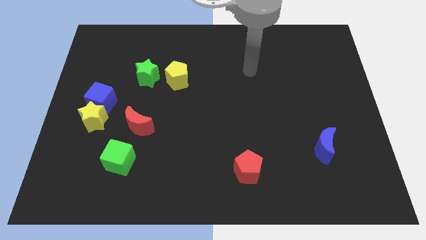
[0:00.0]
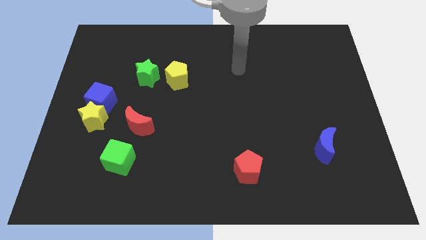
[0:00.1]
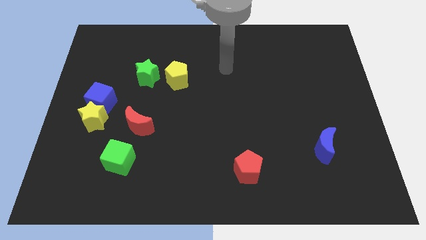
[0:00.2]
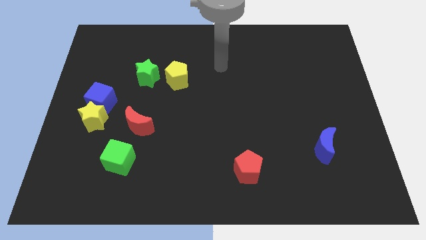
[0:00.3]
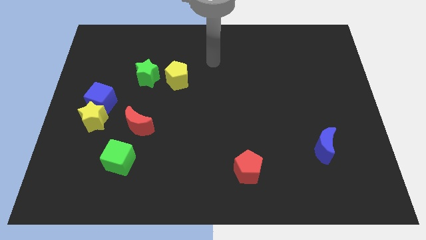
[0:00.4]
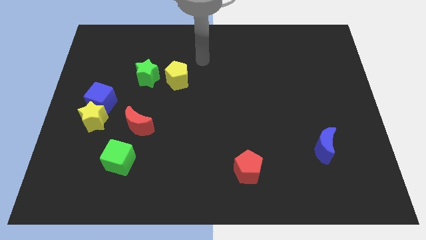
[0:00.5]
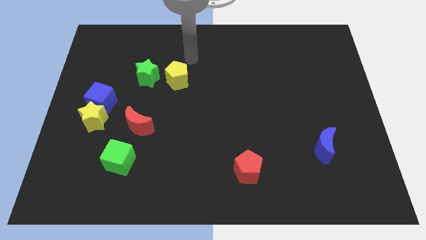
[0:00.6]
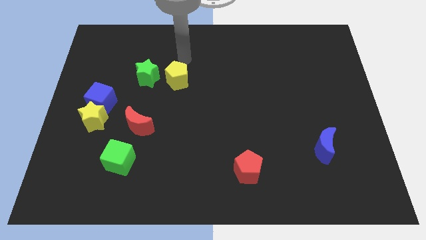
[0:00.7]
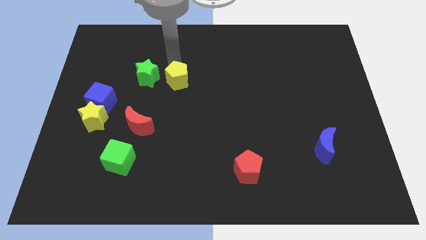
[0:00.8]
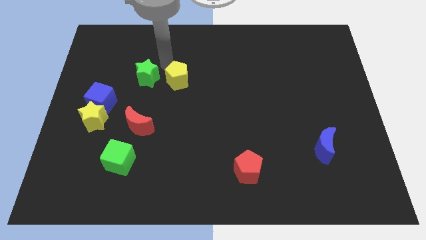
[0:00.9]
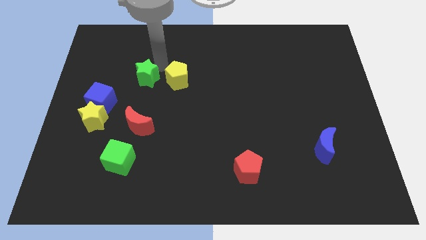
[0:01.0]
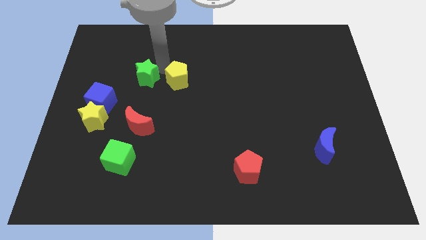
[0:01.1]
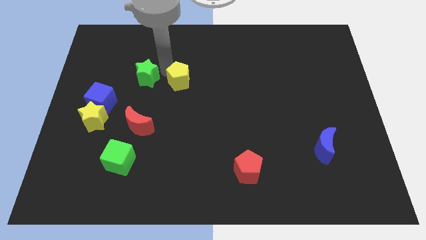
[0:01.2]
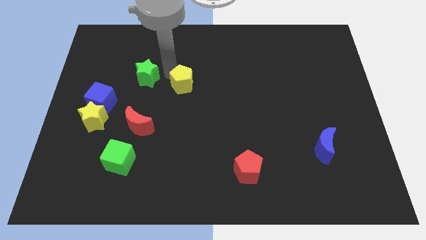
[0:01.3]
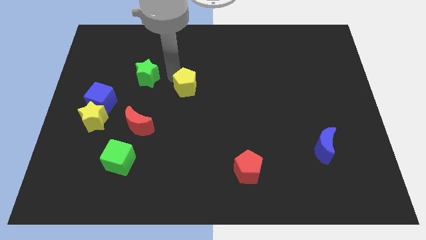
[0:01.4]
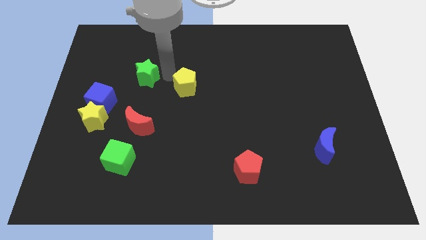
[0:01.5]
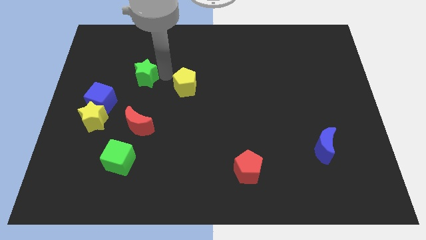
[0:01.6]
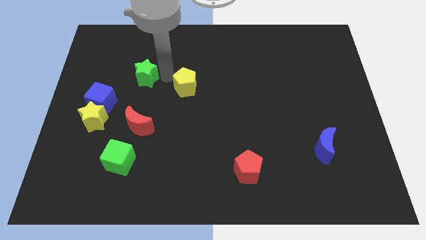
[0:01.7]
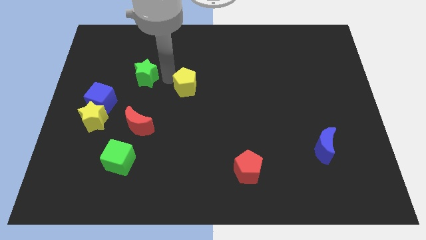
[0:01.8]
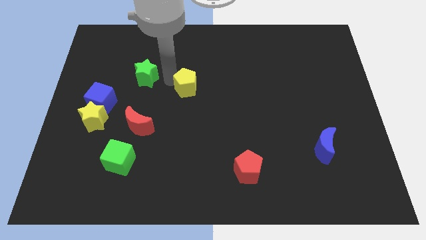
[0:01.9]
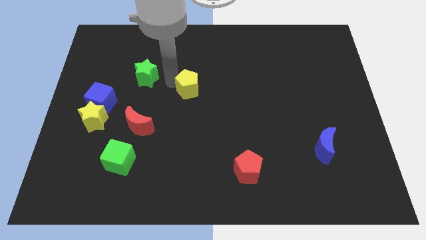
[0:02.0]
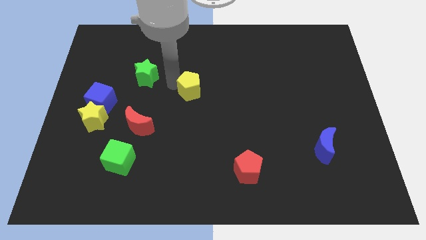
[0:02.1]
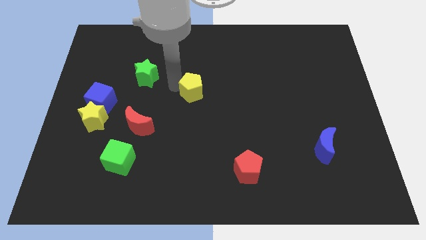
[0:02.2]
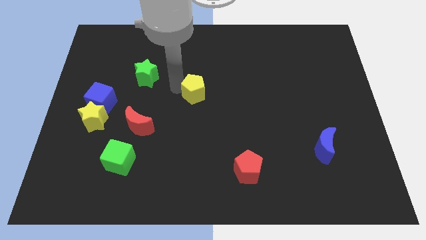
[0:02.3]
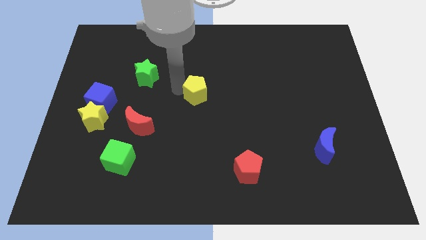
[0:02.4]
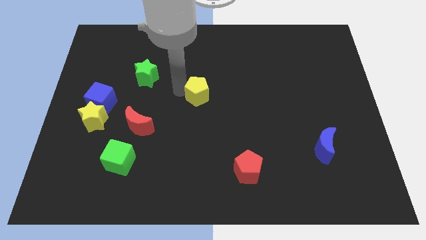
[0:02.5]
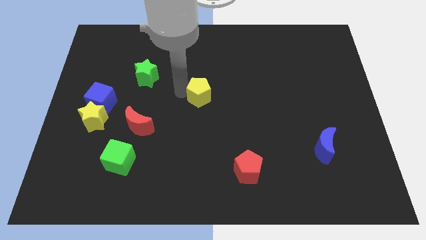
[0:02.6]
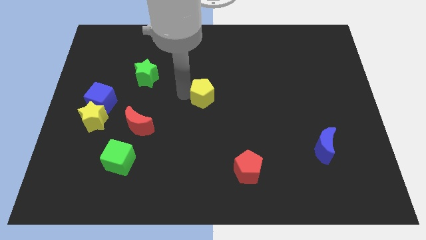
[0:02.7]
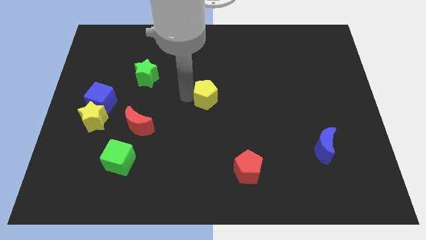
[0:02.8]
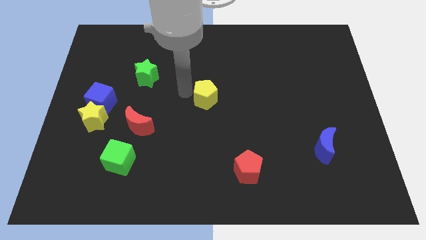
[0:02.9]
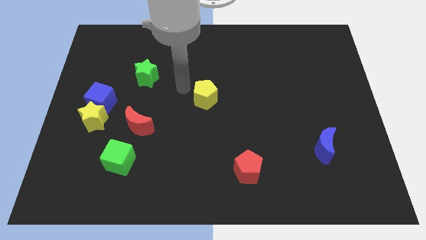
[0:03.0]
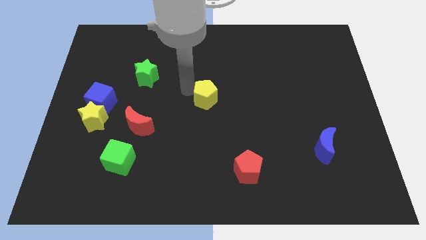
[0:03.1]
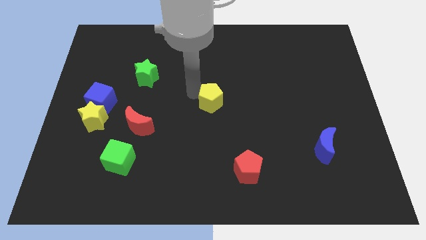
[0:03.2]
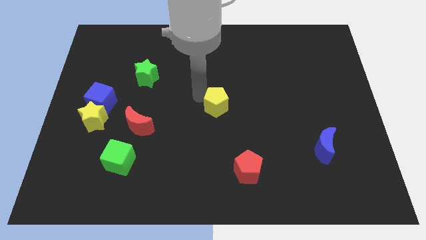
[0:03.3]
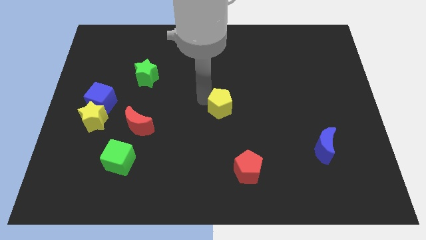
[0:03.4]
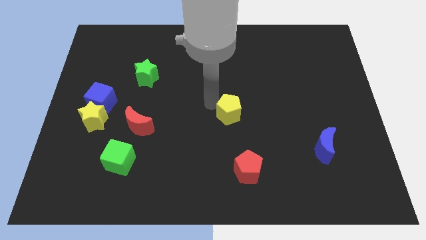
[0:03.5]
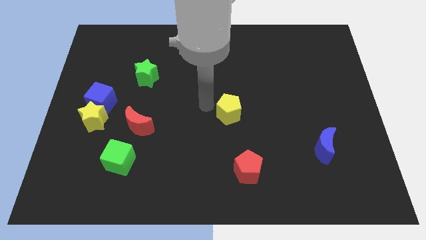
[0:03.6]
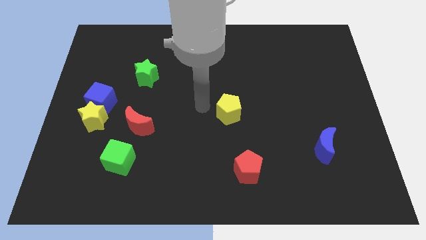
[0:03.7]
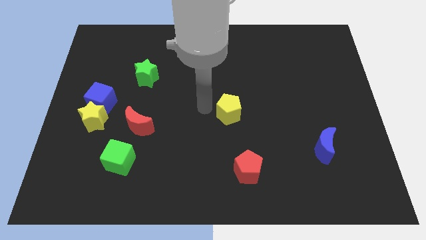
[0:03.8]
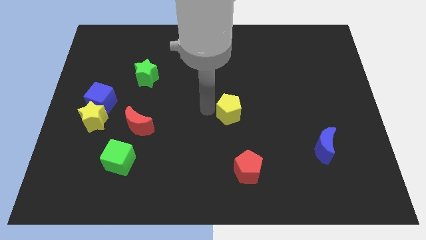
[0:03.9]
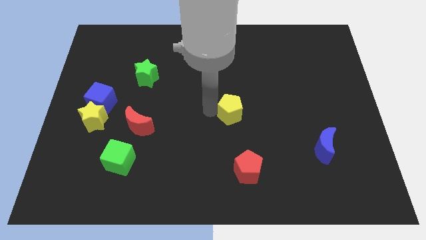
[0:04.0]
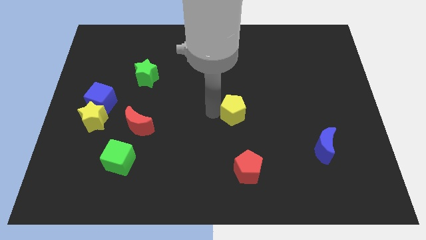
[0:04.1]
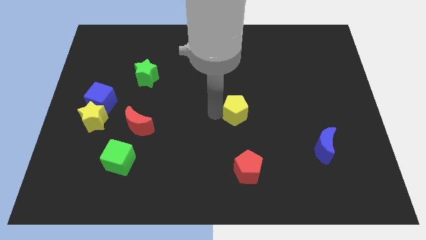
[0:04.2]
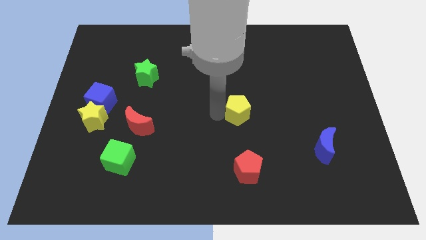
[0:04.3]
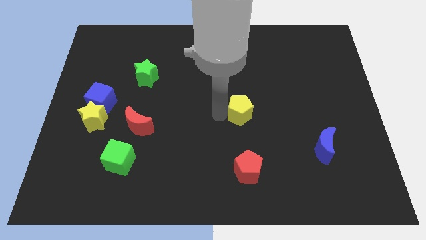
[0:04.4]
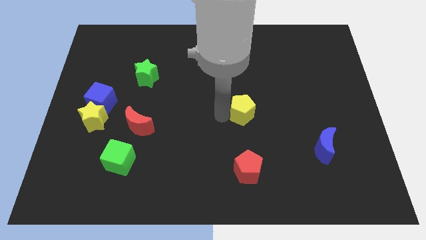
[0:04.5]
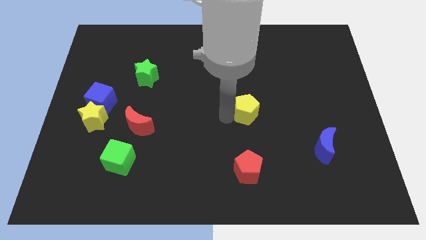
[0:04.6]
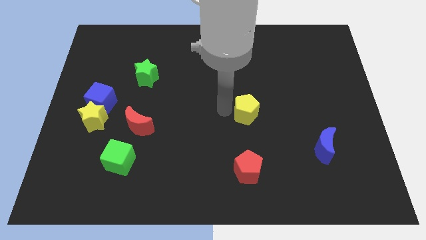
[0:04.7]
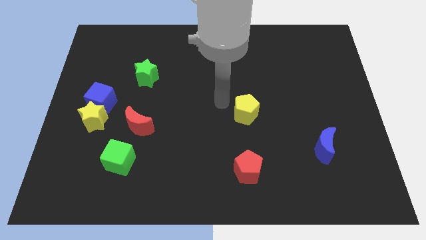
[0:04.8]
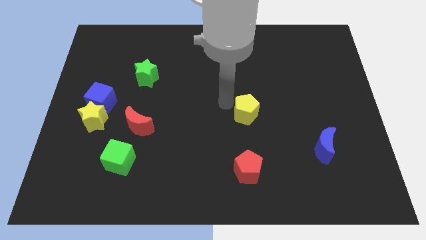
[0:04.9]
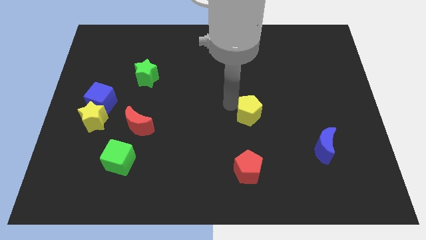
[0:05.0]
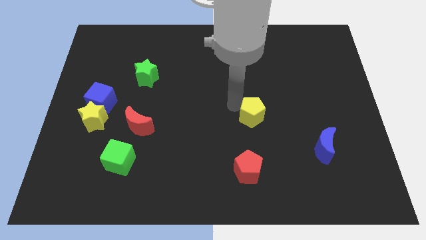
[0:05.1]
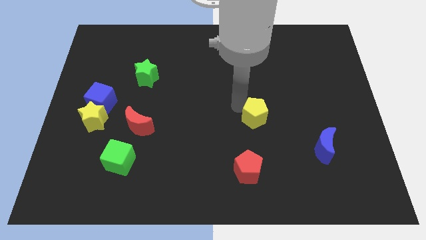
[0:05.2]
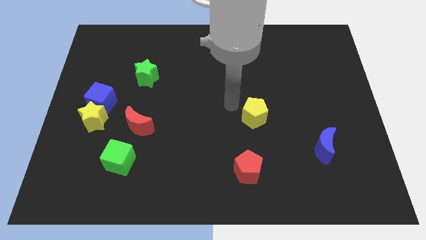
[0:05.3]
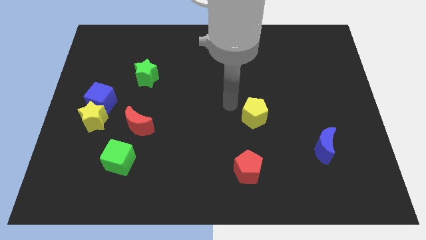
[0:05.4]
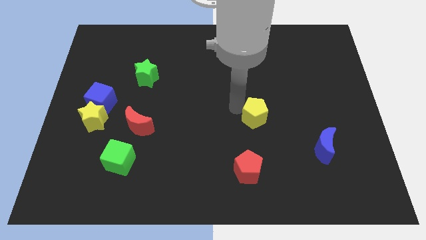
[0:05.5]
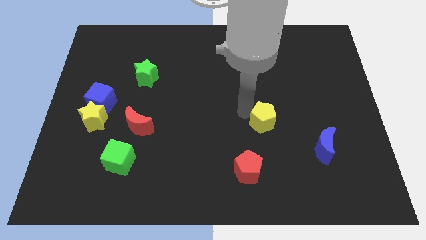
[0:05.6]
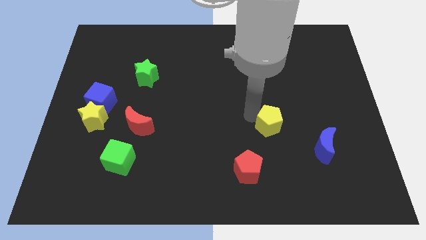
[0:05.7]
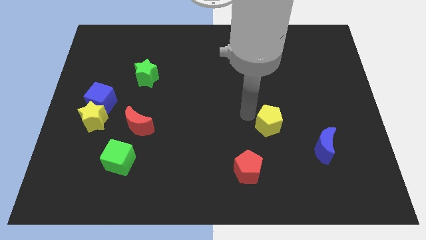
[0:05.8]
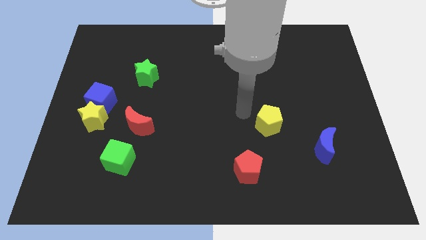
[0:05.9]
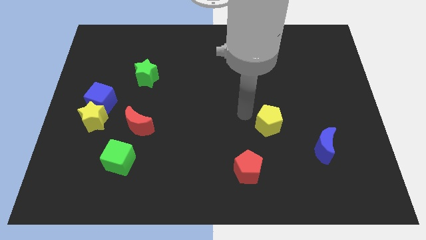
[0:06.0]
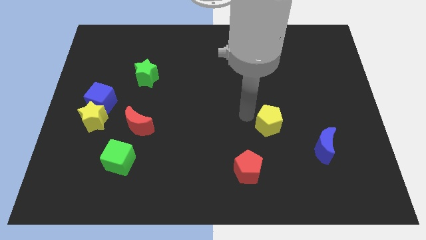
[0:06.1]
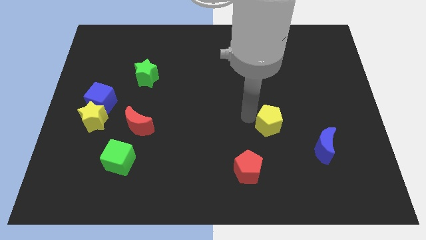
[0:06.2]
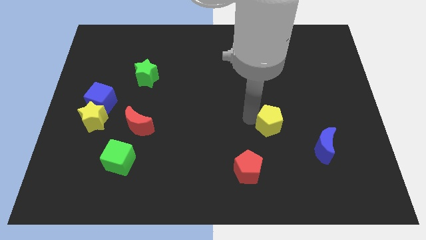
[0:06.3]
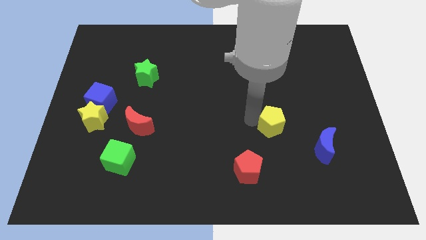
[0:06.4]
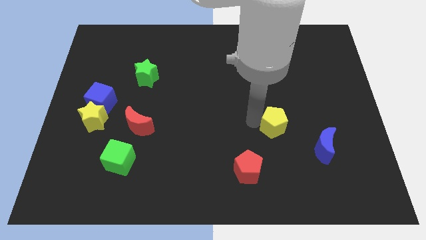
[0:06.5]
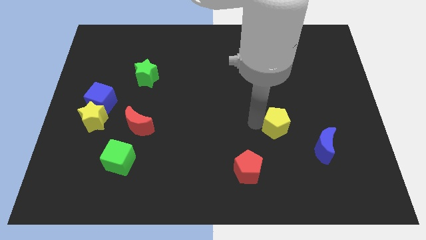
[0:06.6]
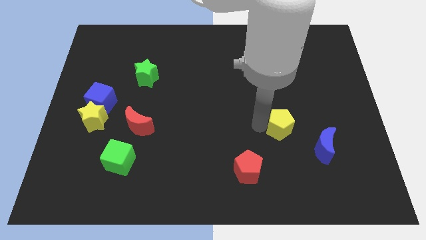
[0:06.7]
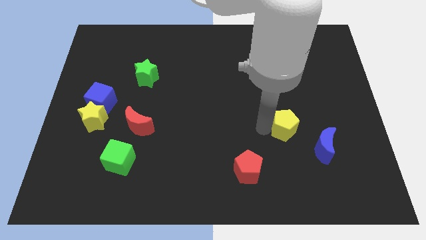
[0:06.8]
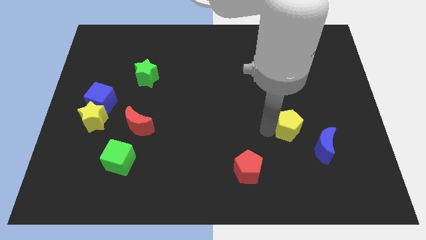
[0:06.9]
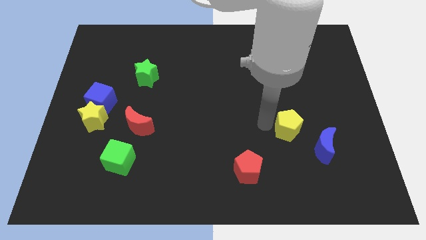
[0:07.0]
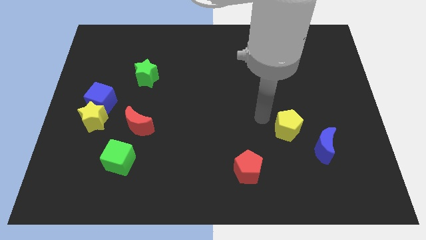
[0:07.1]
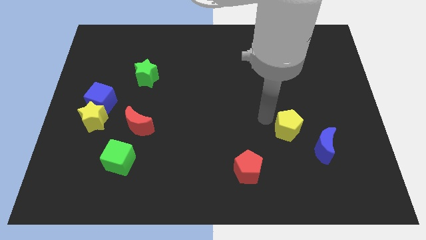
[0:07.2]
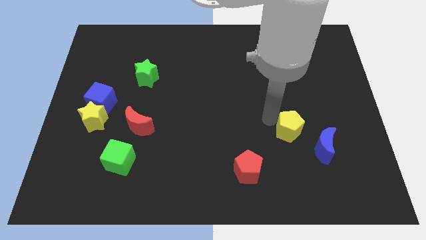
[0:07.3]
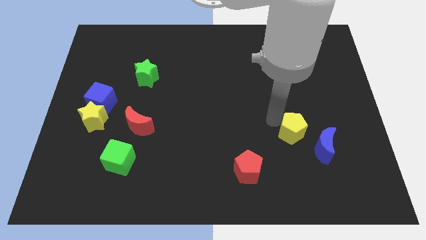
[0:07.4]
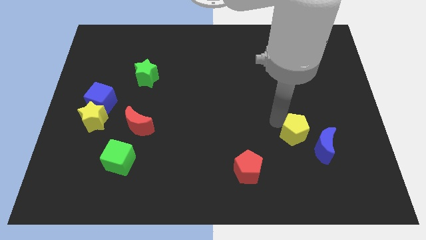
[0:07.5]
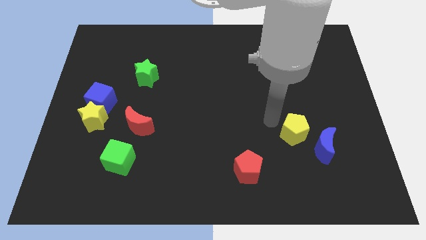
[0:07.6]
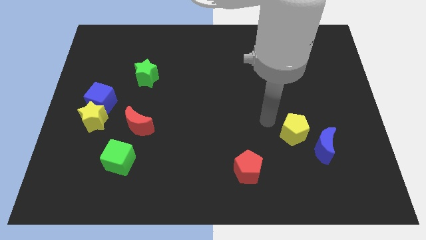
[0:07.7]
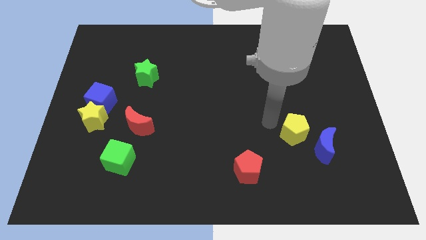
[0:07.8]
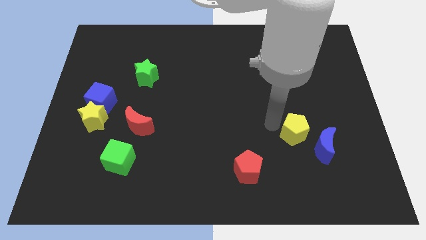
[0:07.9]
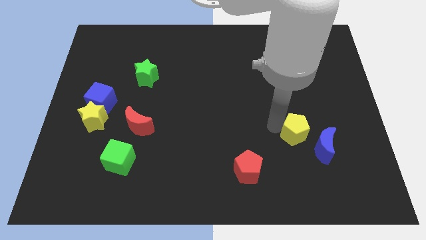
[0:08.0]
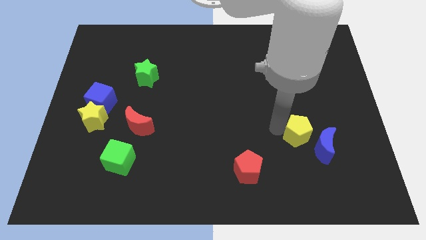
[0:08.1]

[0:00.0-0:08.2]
slide the yellow pentagon next to the blue moon
